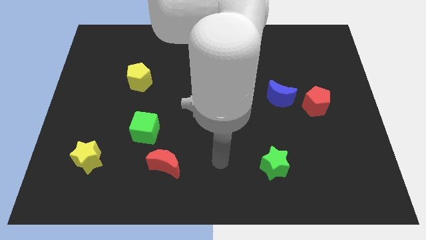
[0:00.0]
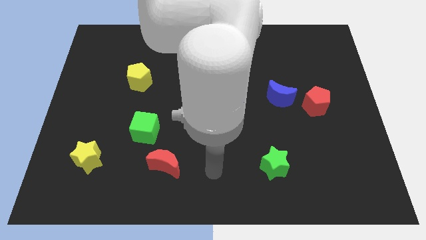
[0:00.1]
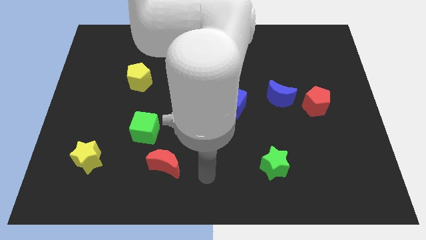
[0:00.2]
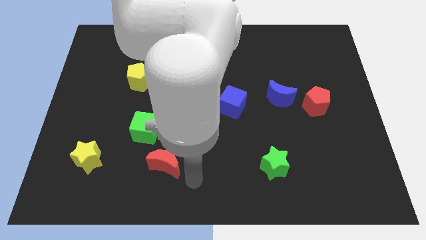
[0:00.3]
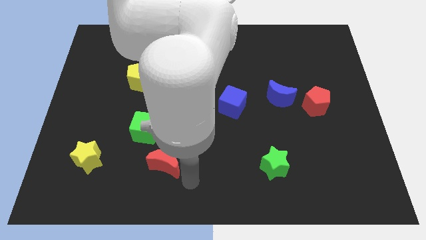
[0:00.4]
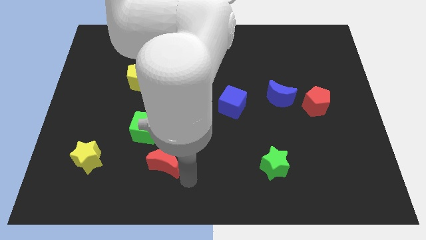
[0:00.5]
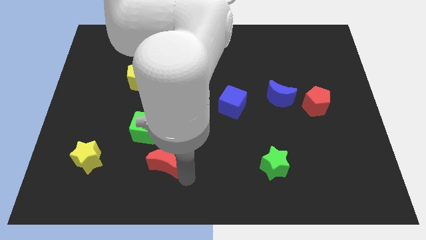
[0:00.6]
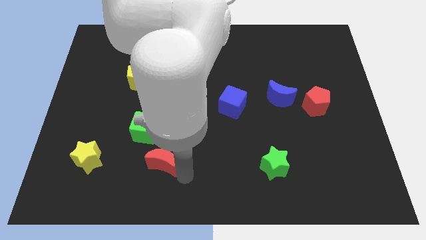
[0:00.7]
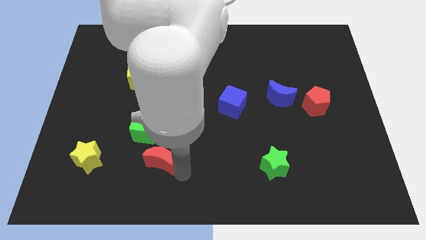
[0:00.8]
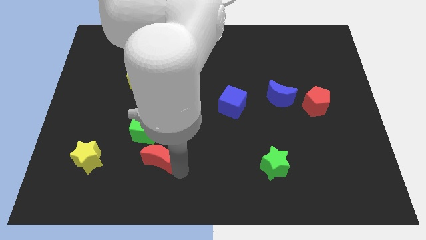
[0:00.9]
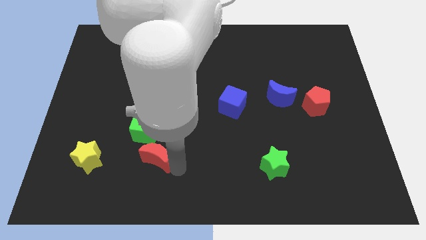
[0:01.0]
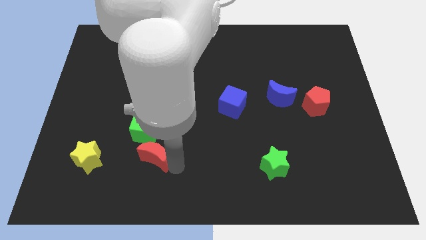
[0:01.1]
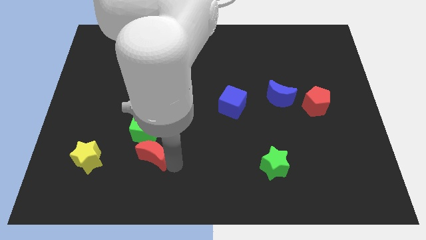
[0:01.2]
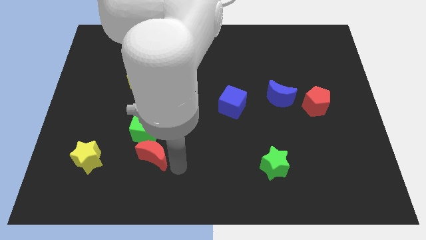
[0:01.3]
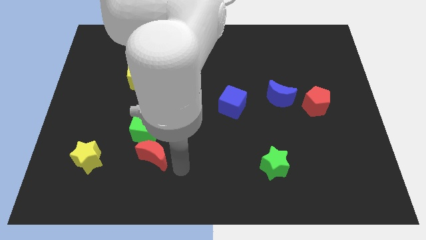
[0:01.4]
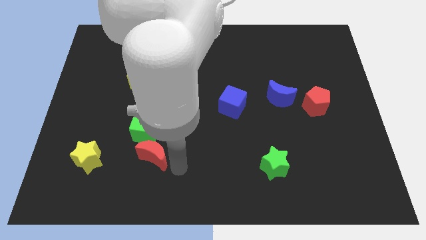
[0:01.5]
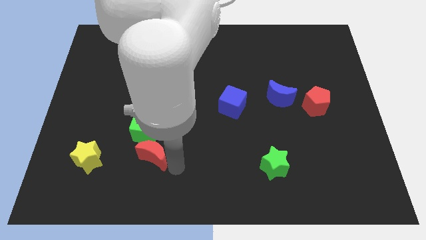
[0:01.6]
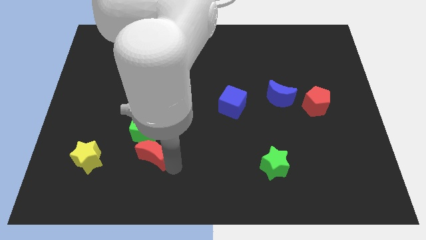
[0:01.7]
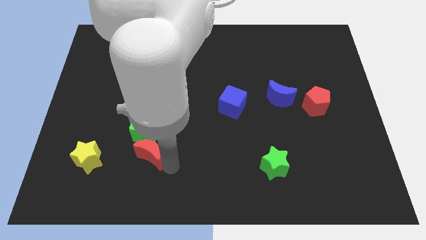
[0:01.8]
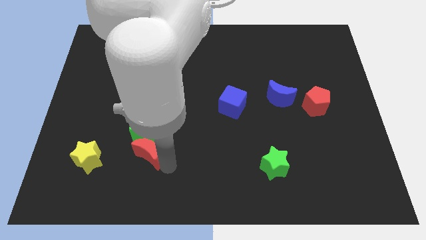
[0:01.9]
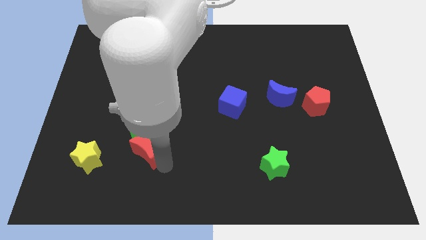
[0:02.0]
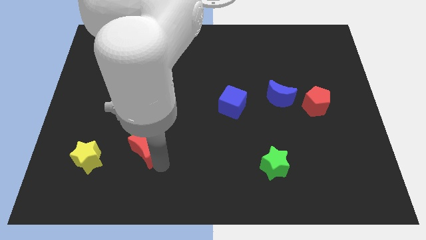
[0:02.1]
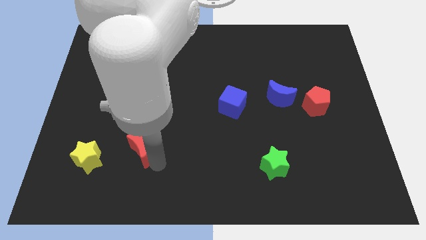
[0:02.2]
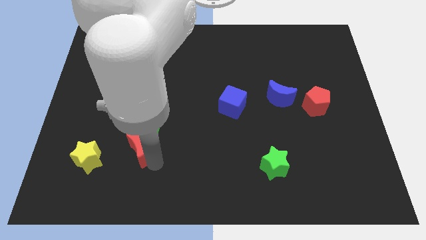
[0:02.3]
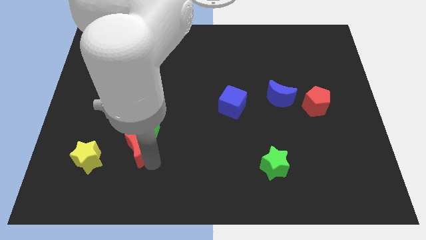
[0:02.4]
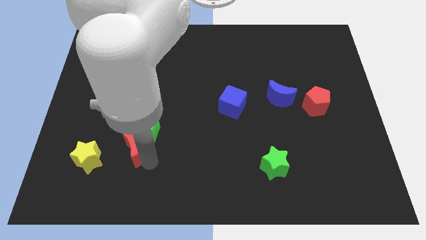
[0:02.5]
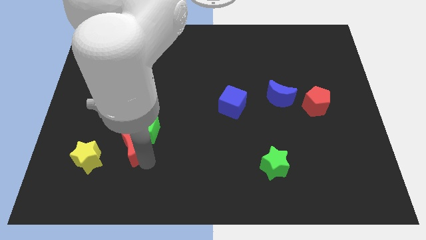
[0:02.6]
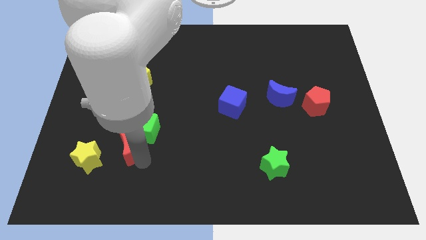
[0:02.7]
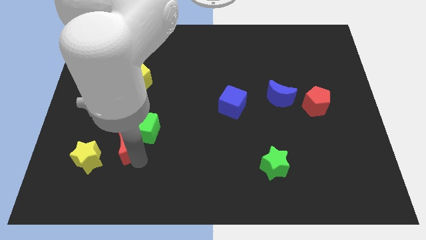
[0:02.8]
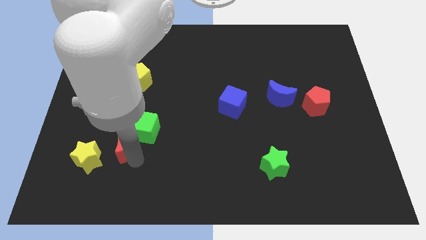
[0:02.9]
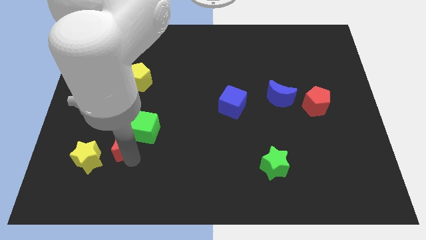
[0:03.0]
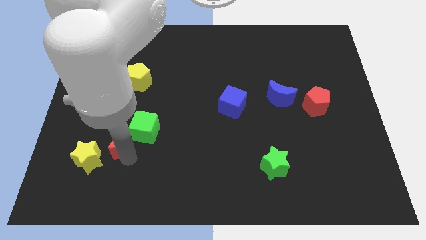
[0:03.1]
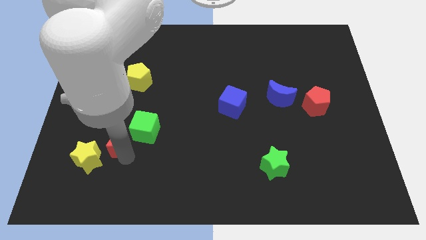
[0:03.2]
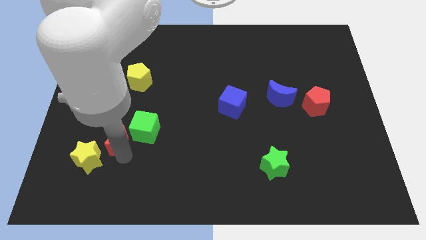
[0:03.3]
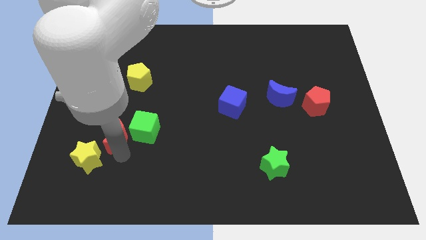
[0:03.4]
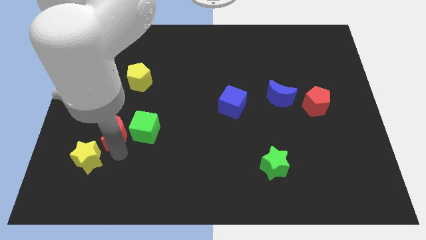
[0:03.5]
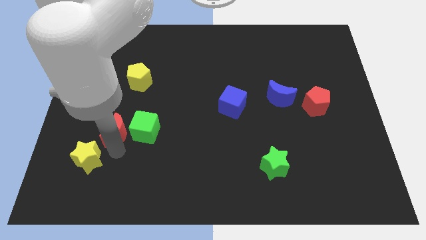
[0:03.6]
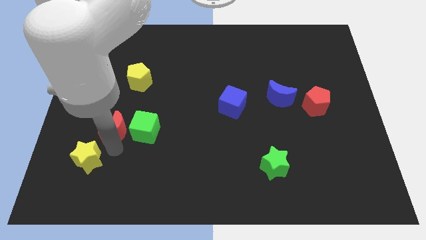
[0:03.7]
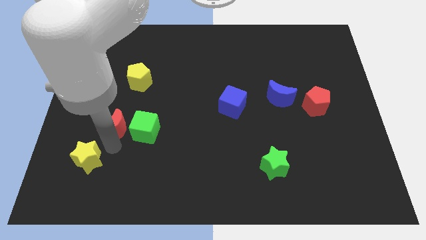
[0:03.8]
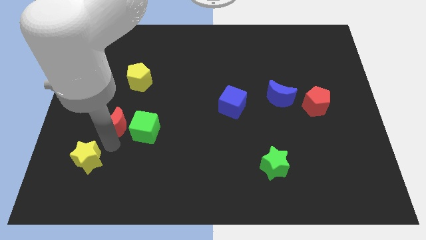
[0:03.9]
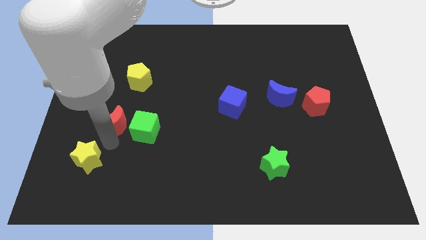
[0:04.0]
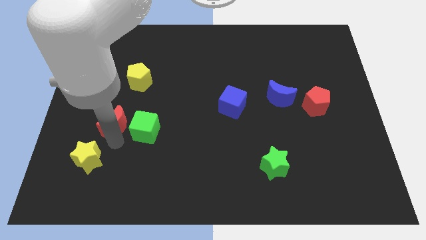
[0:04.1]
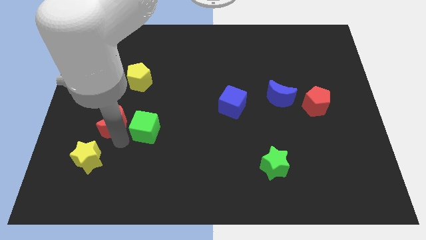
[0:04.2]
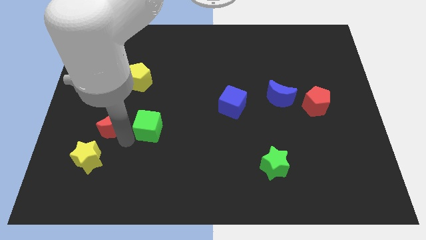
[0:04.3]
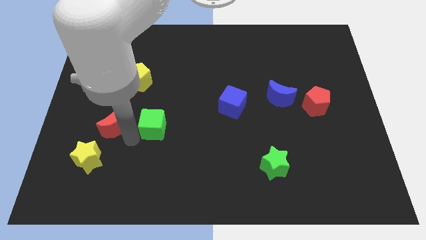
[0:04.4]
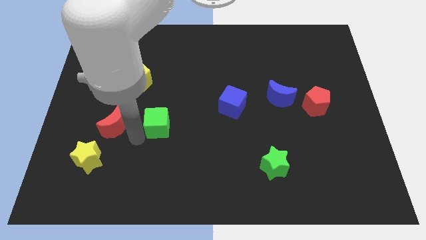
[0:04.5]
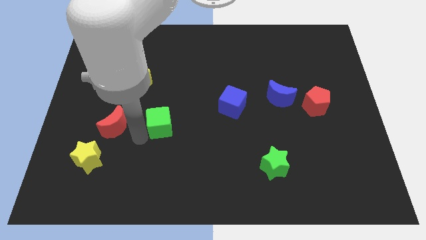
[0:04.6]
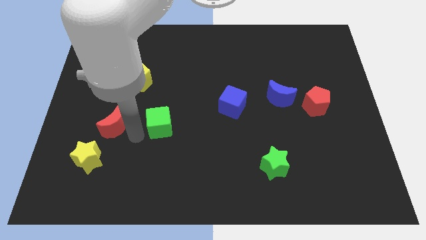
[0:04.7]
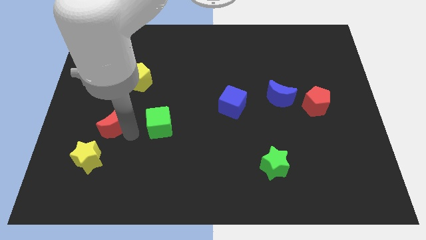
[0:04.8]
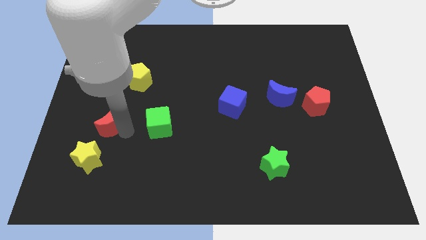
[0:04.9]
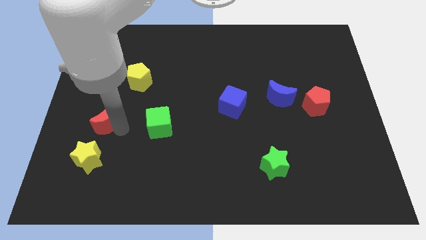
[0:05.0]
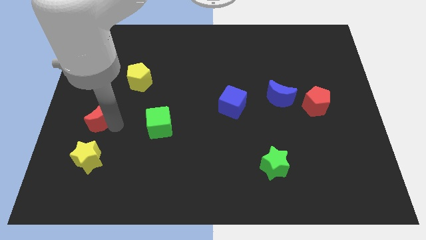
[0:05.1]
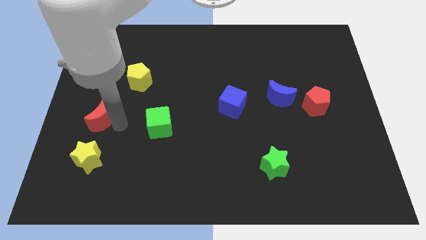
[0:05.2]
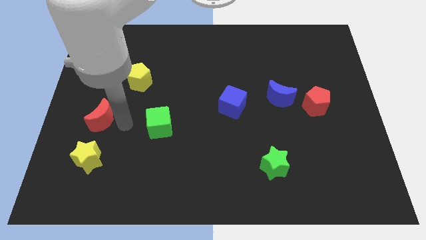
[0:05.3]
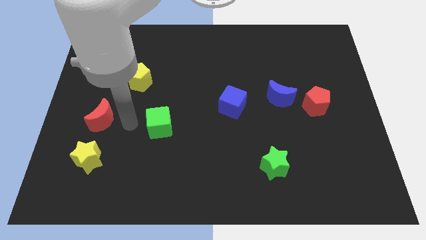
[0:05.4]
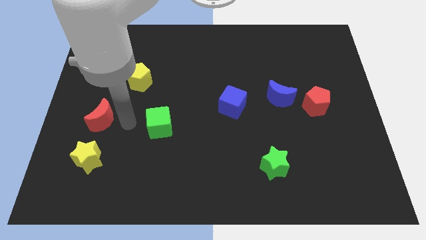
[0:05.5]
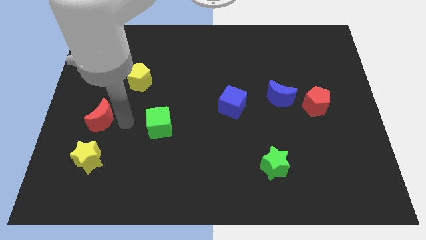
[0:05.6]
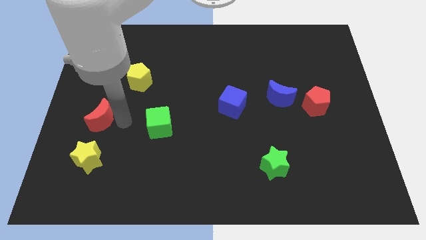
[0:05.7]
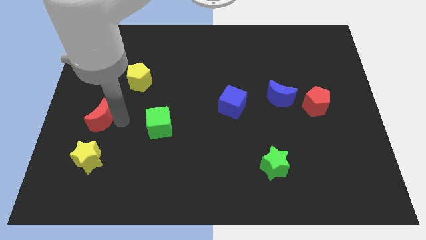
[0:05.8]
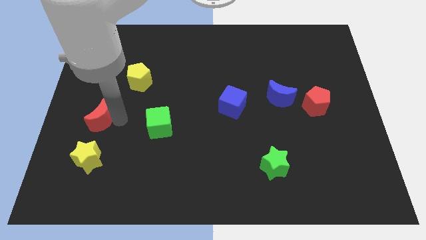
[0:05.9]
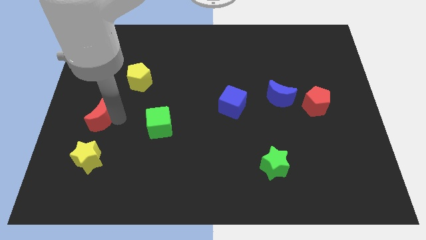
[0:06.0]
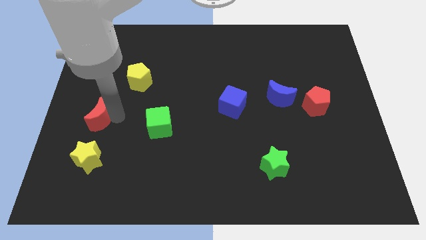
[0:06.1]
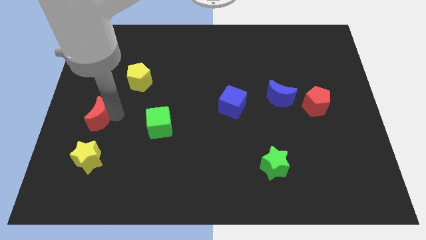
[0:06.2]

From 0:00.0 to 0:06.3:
push the red moon to the left side of the board
